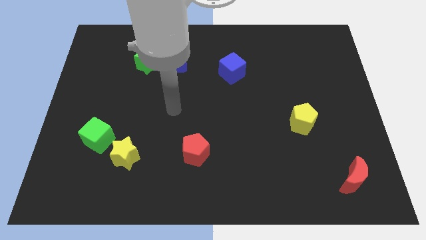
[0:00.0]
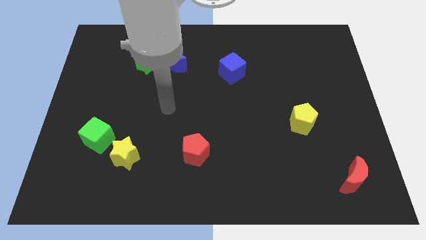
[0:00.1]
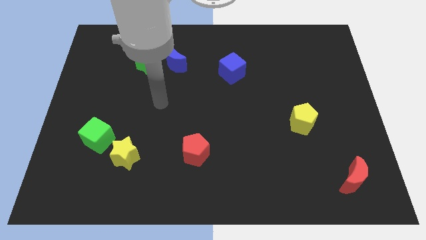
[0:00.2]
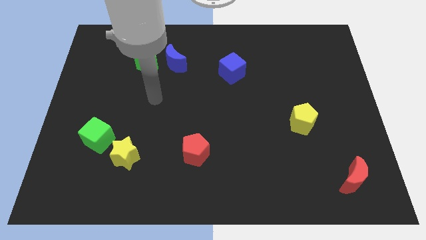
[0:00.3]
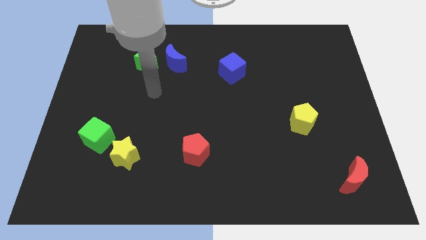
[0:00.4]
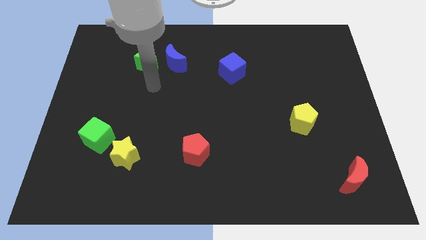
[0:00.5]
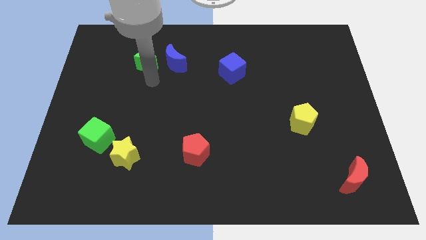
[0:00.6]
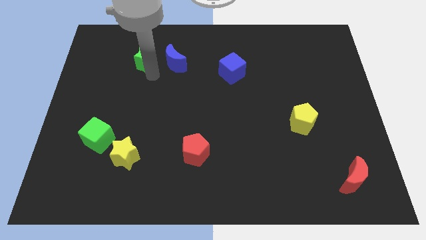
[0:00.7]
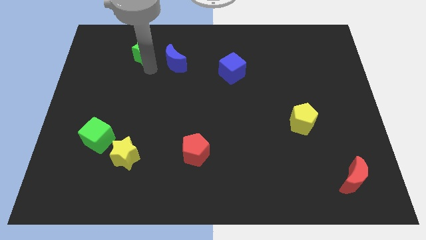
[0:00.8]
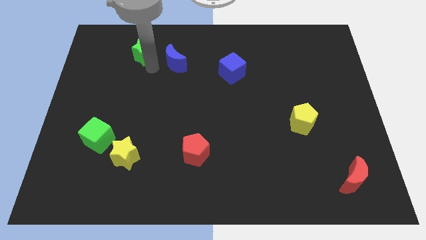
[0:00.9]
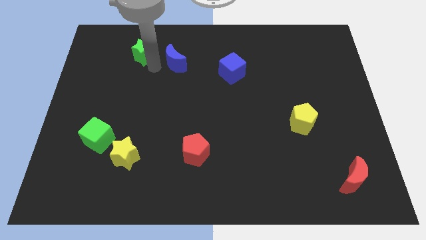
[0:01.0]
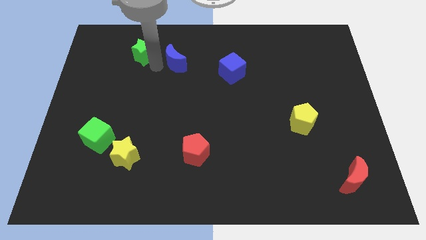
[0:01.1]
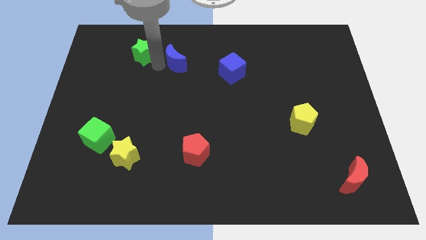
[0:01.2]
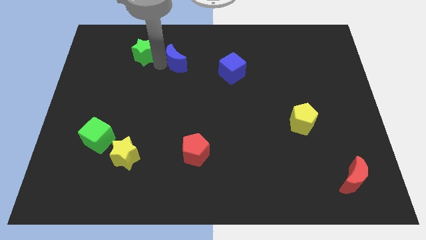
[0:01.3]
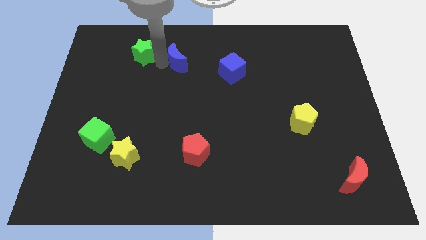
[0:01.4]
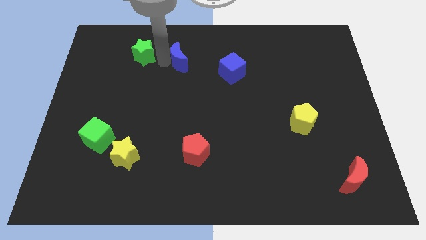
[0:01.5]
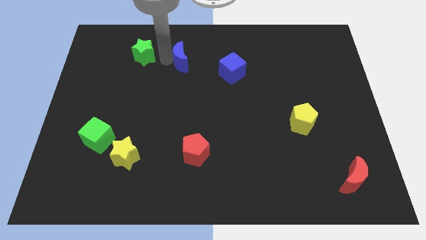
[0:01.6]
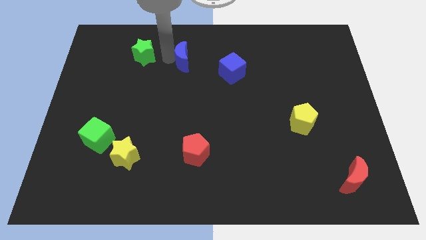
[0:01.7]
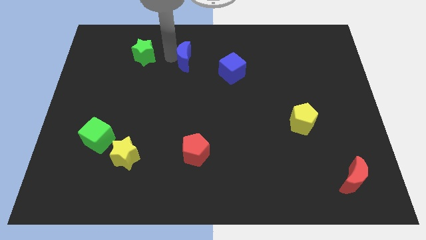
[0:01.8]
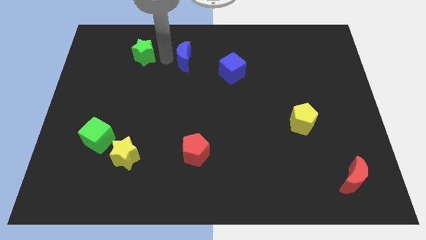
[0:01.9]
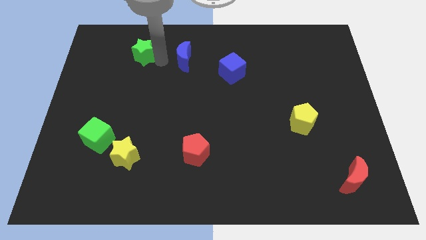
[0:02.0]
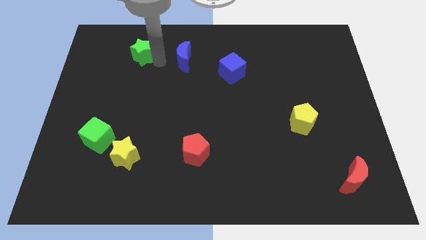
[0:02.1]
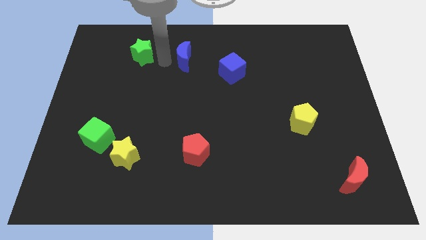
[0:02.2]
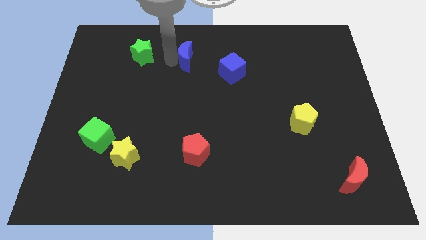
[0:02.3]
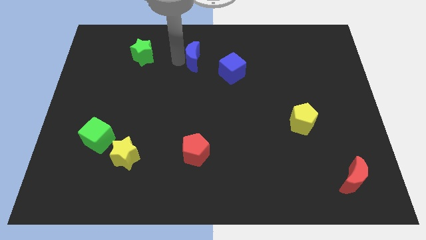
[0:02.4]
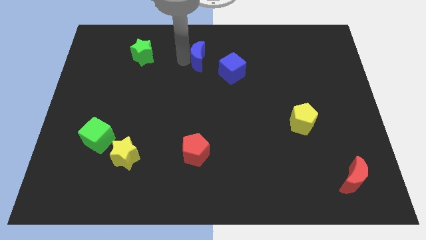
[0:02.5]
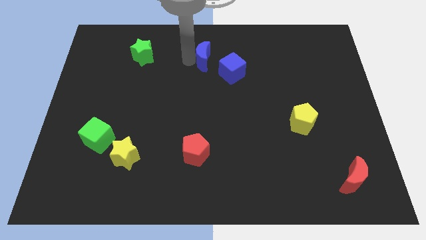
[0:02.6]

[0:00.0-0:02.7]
move the blue moon a little right

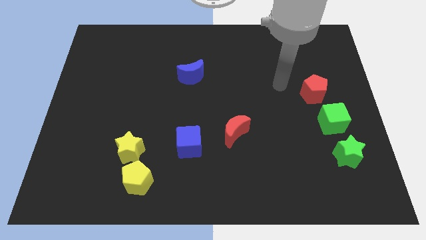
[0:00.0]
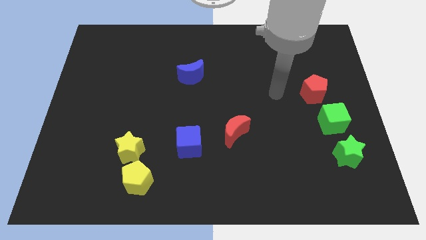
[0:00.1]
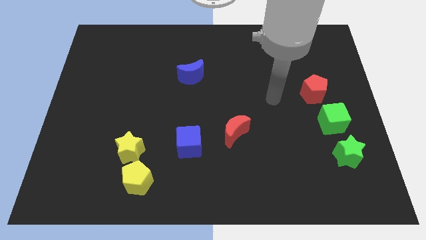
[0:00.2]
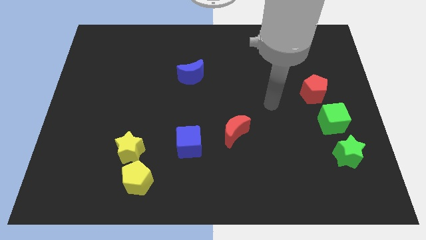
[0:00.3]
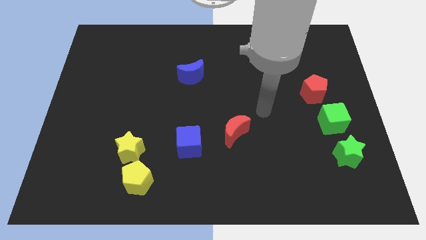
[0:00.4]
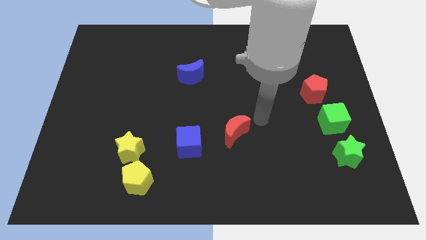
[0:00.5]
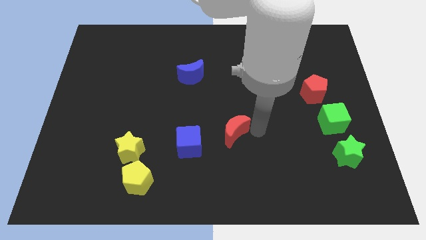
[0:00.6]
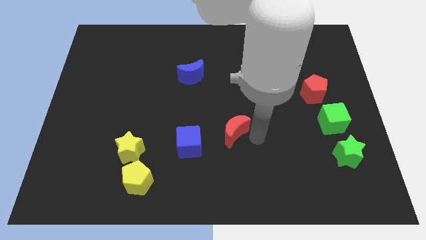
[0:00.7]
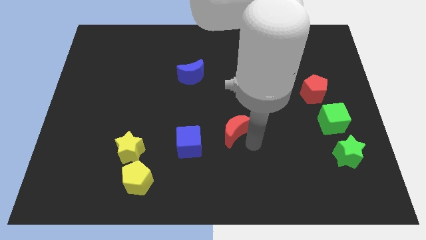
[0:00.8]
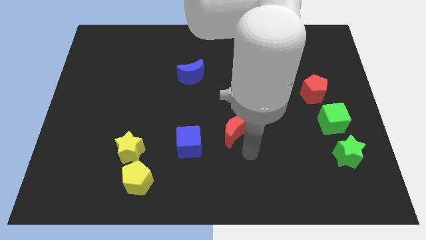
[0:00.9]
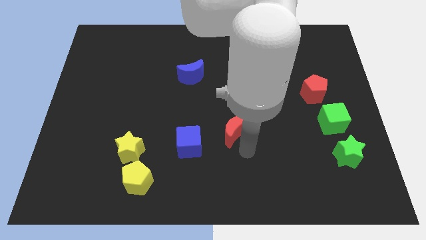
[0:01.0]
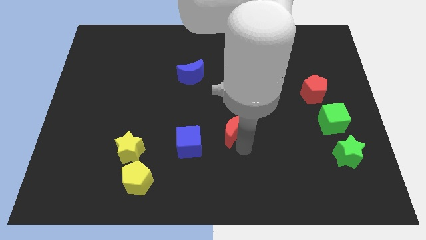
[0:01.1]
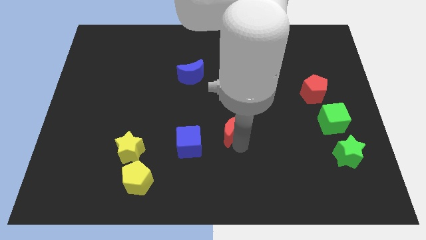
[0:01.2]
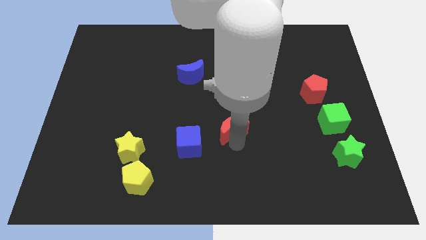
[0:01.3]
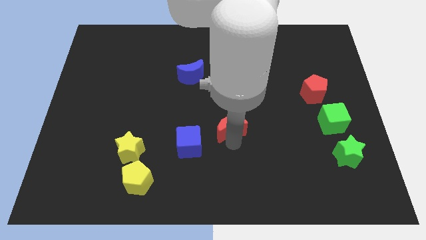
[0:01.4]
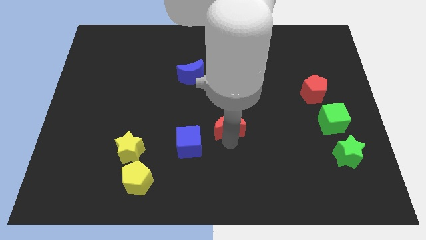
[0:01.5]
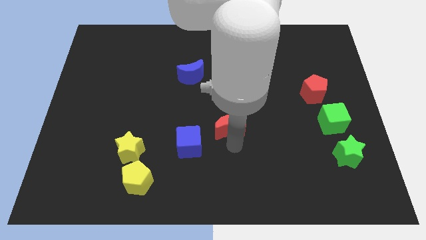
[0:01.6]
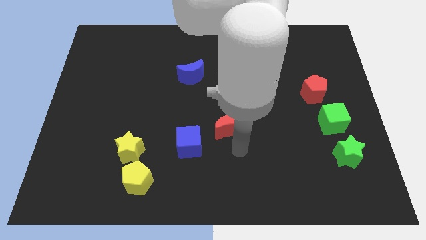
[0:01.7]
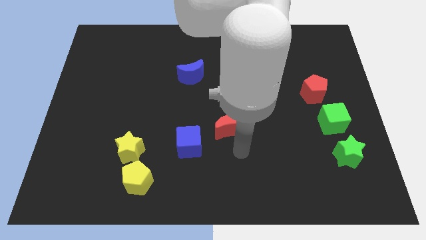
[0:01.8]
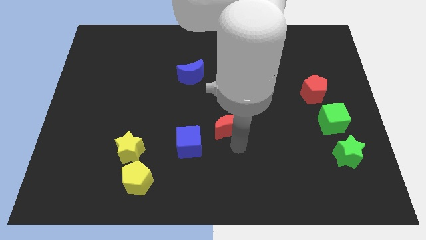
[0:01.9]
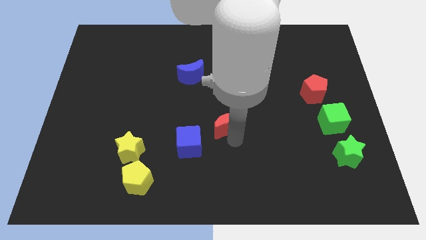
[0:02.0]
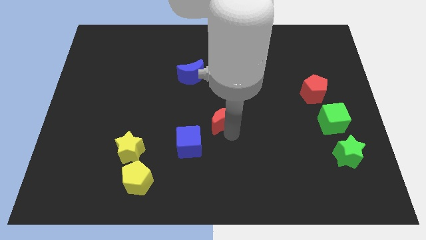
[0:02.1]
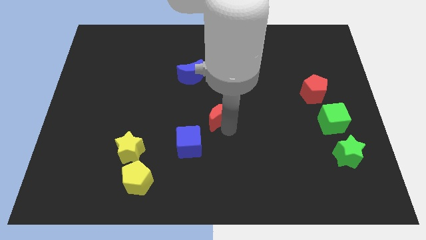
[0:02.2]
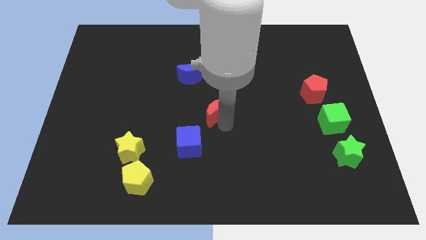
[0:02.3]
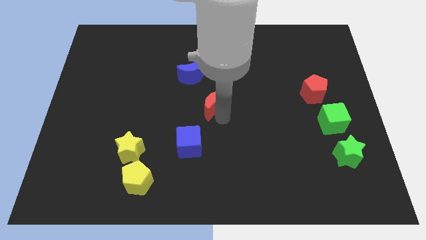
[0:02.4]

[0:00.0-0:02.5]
slide the red moon diagonally upwards and to the left slightly

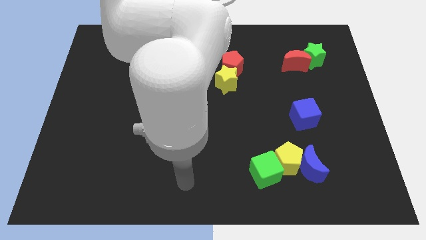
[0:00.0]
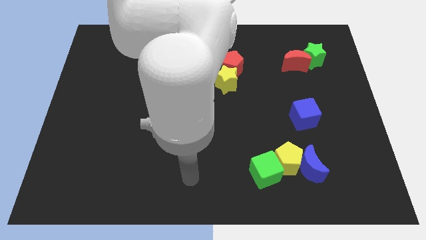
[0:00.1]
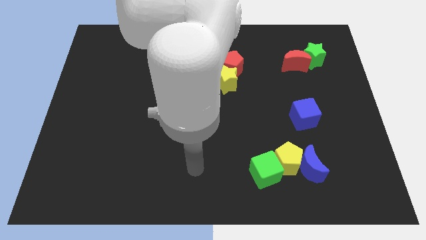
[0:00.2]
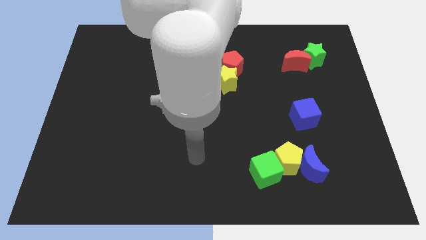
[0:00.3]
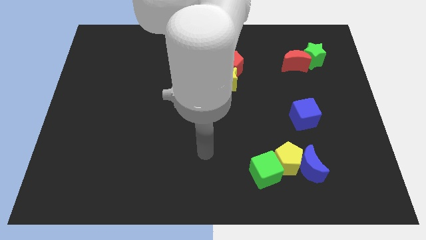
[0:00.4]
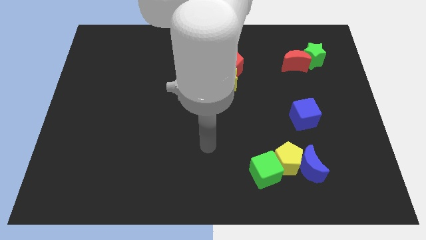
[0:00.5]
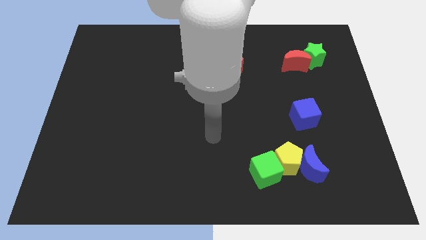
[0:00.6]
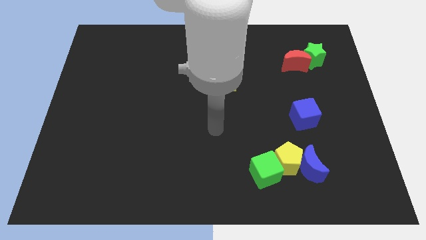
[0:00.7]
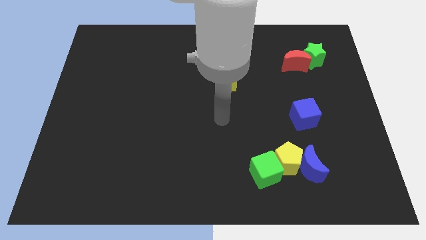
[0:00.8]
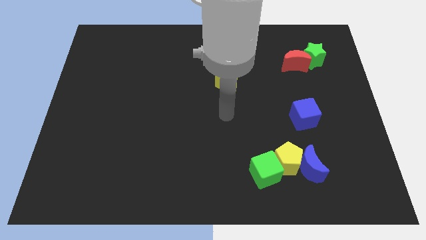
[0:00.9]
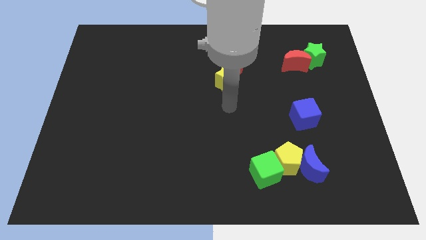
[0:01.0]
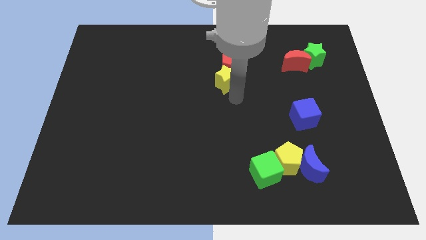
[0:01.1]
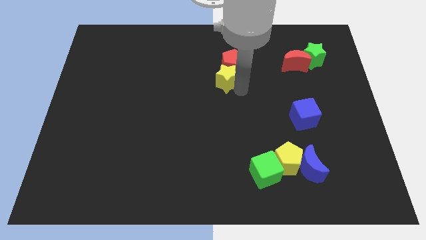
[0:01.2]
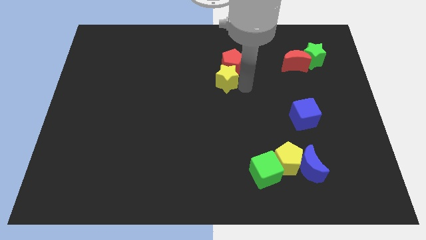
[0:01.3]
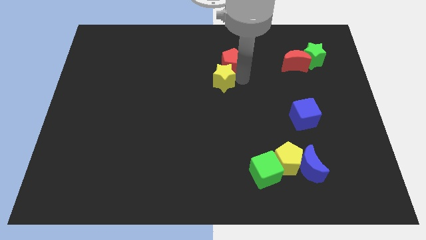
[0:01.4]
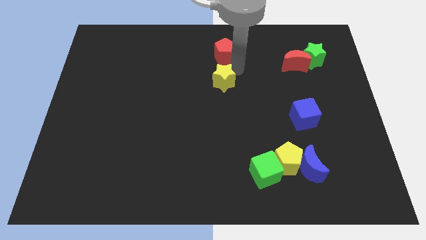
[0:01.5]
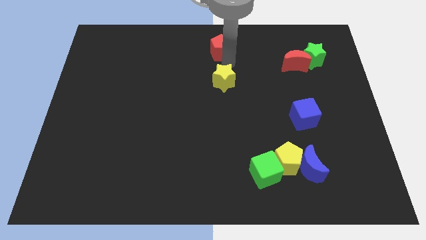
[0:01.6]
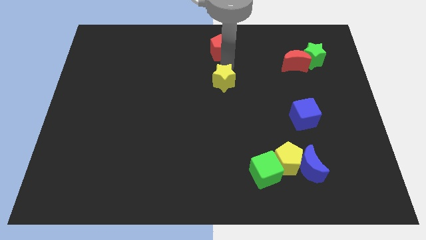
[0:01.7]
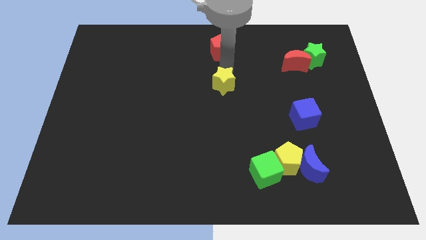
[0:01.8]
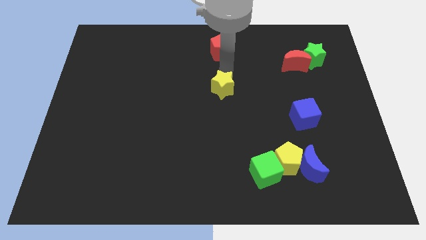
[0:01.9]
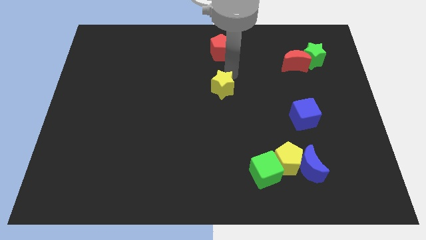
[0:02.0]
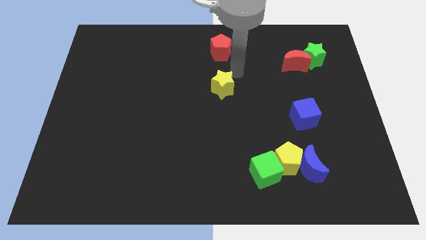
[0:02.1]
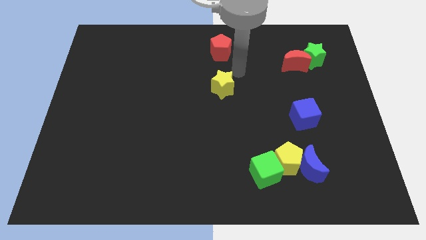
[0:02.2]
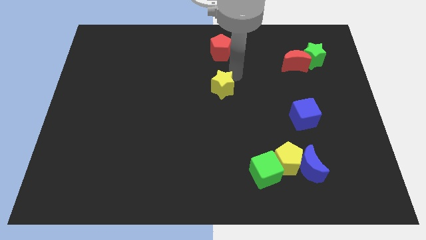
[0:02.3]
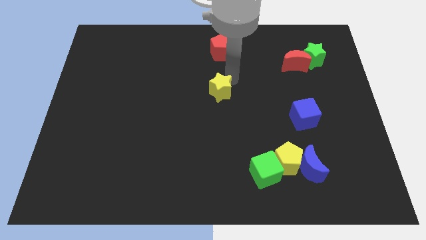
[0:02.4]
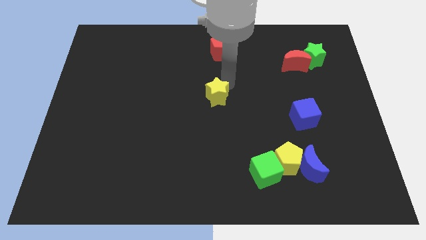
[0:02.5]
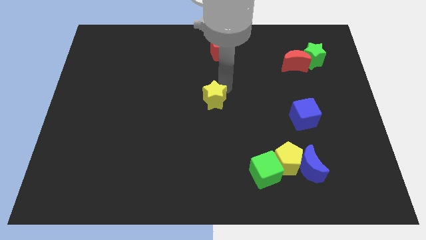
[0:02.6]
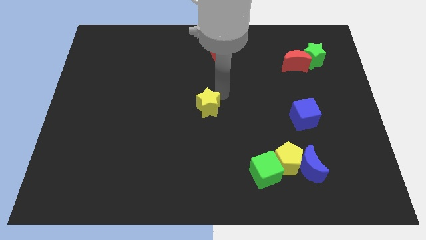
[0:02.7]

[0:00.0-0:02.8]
slightly move the yellow star down and to the left diagonally

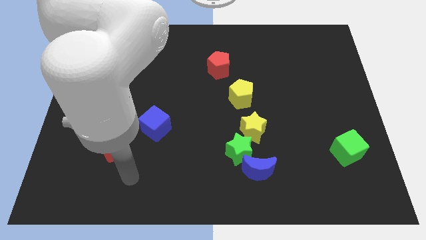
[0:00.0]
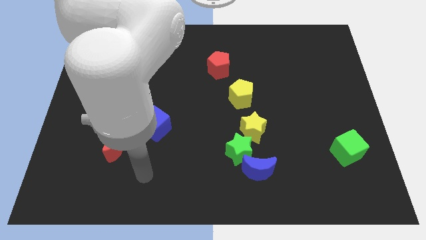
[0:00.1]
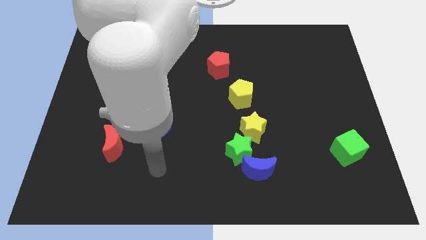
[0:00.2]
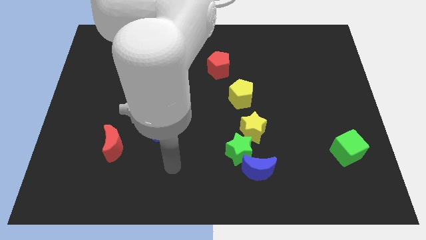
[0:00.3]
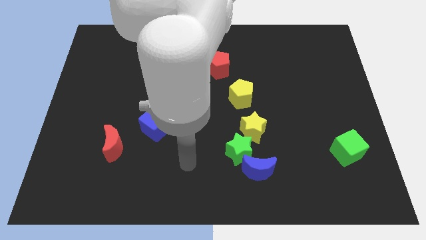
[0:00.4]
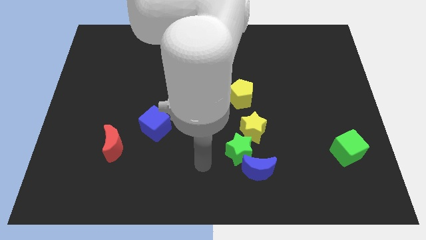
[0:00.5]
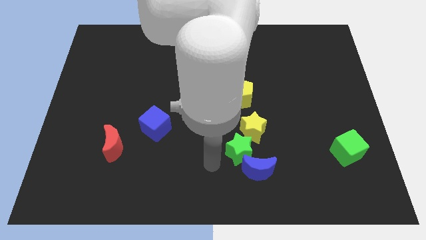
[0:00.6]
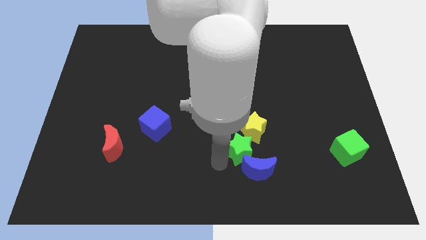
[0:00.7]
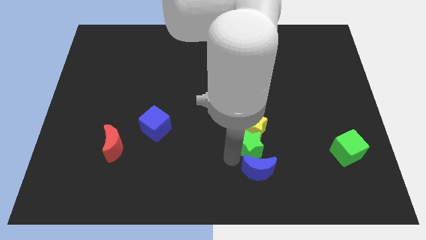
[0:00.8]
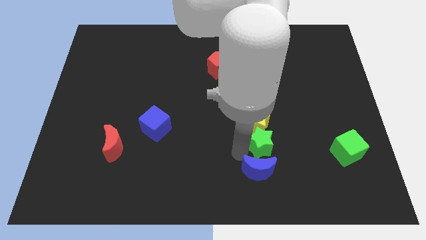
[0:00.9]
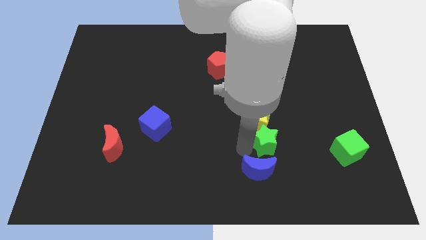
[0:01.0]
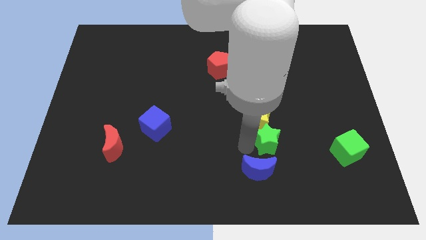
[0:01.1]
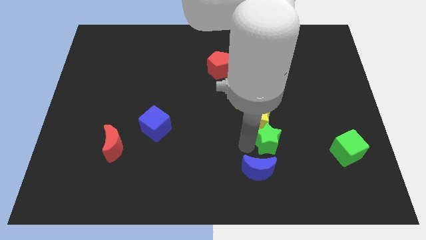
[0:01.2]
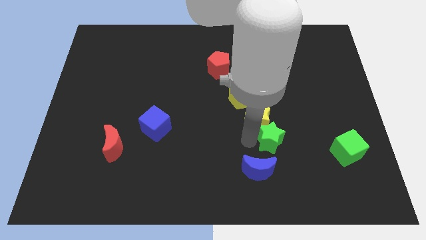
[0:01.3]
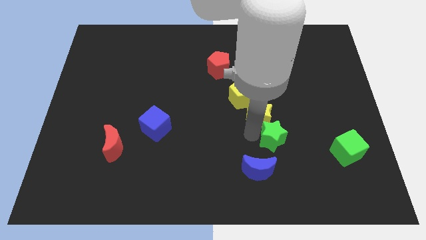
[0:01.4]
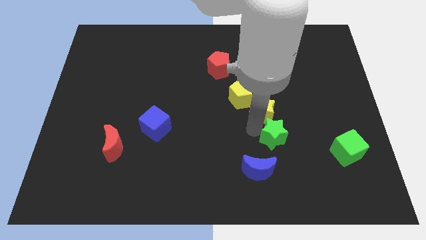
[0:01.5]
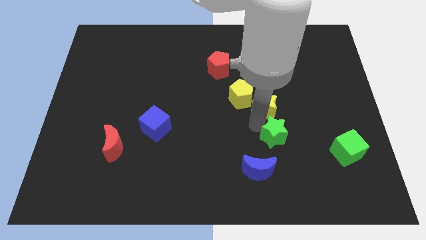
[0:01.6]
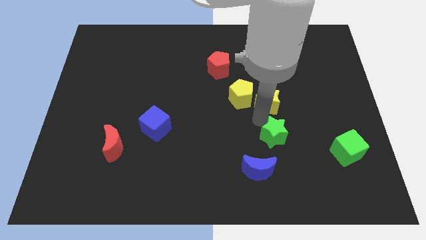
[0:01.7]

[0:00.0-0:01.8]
slide the yellow star upwards a little bit
